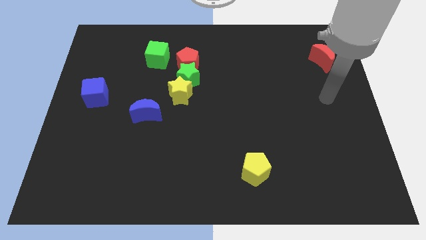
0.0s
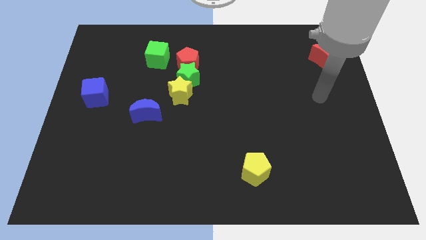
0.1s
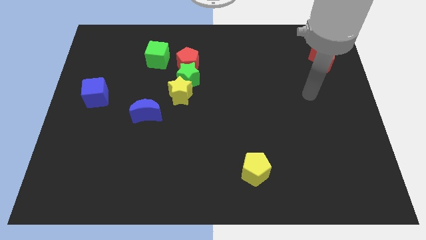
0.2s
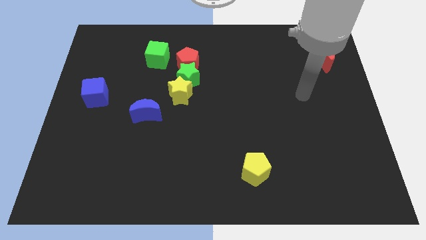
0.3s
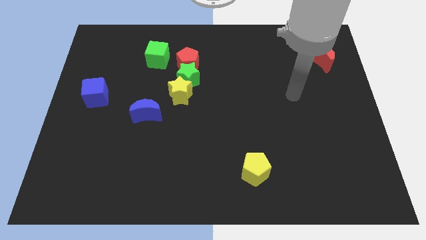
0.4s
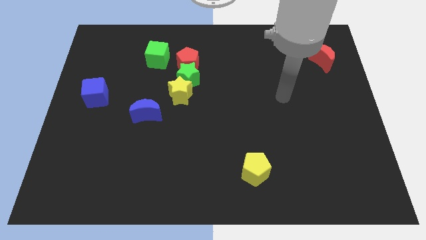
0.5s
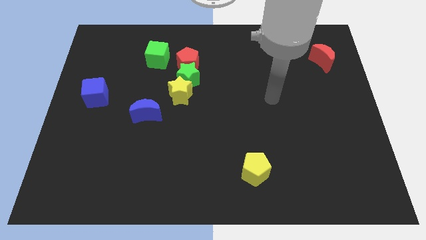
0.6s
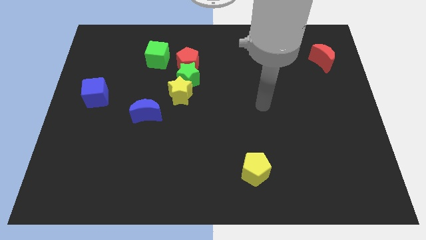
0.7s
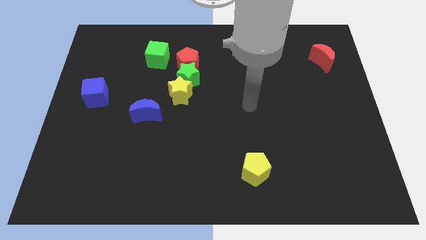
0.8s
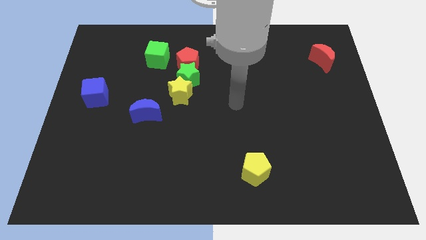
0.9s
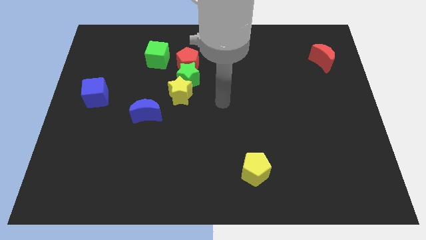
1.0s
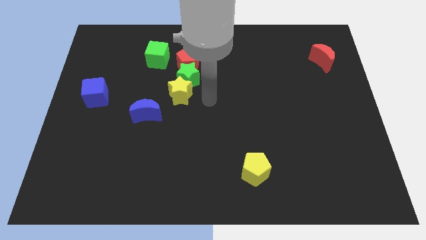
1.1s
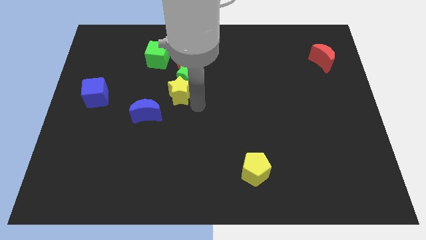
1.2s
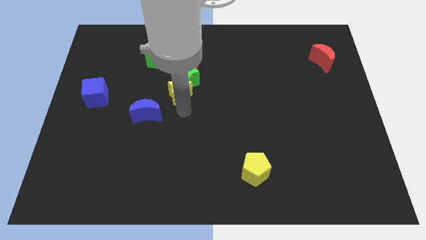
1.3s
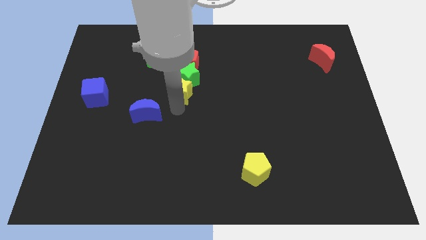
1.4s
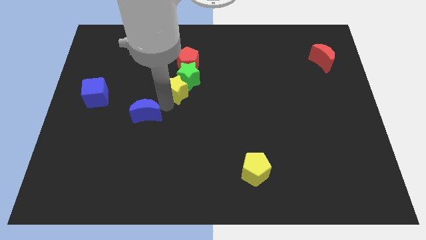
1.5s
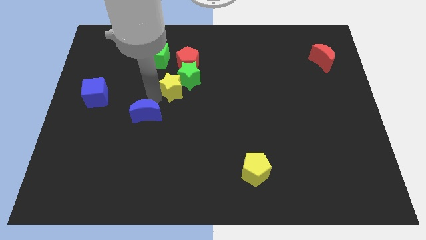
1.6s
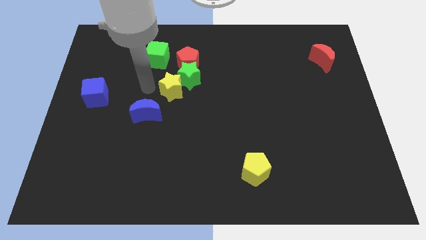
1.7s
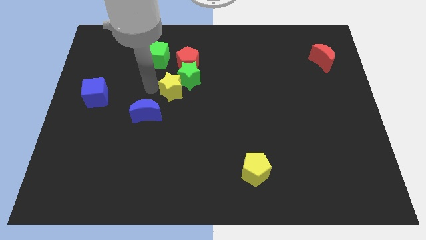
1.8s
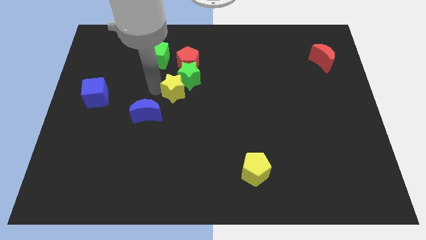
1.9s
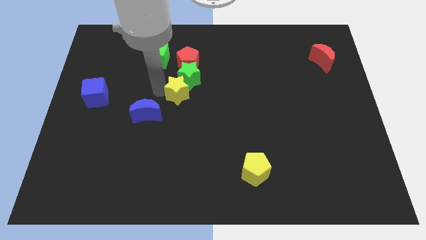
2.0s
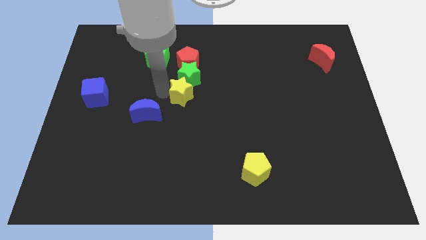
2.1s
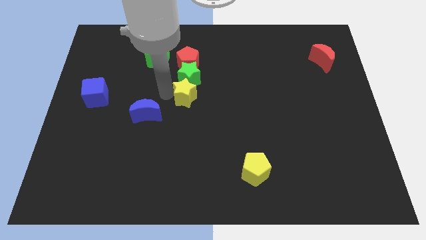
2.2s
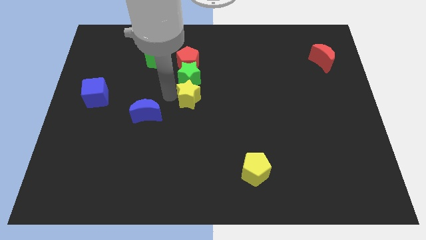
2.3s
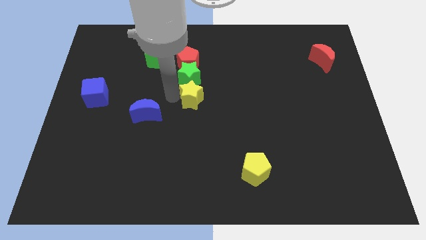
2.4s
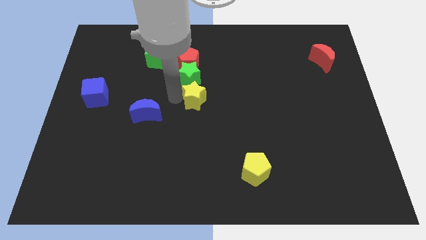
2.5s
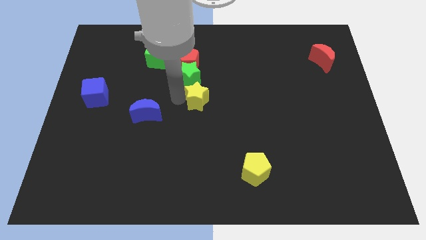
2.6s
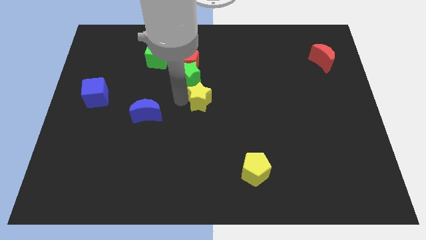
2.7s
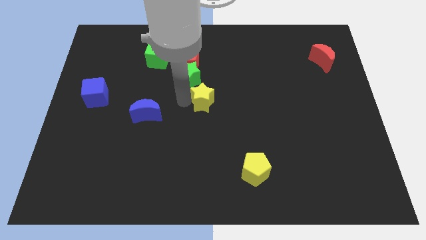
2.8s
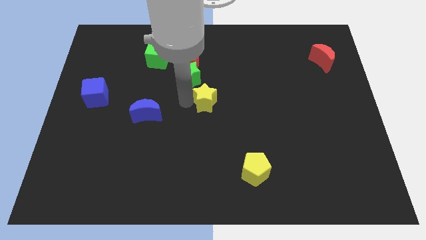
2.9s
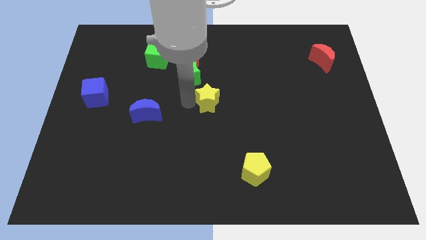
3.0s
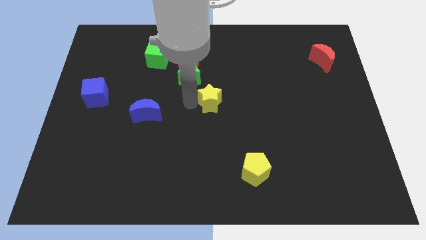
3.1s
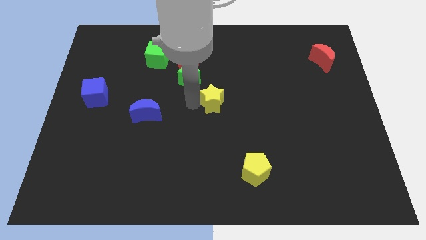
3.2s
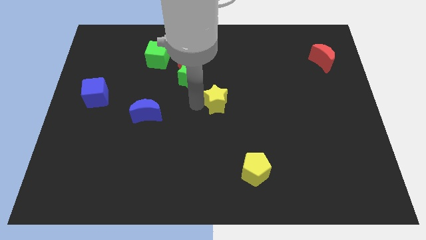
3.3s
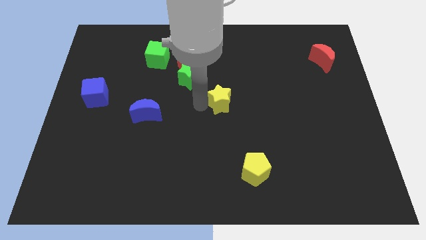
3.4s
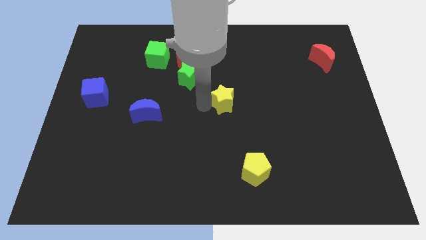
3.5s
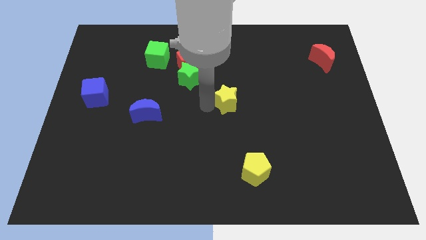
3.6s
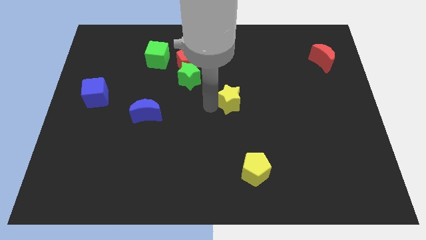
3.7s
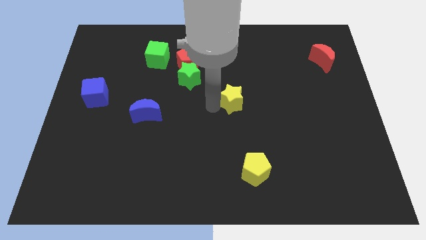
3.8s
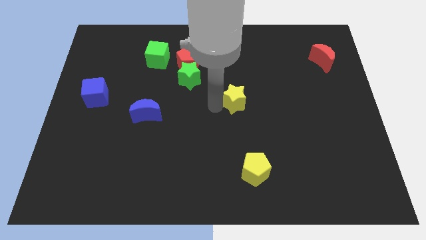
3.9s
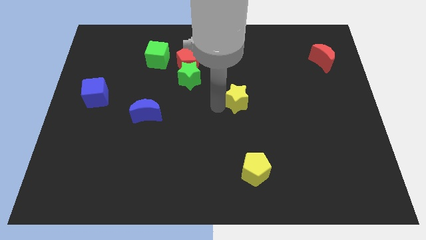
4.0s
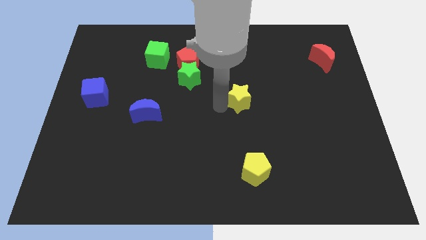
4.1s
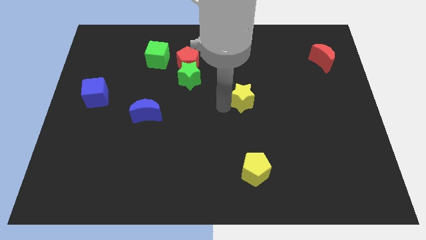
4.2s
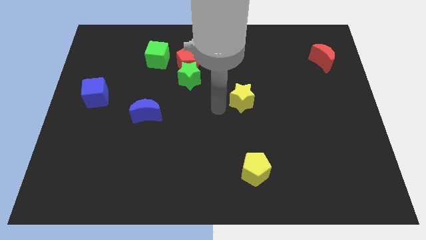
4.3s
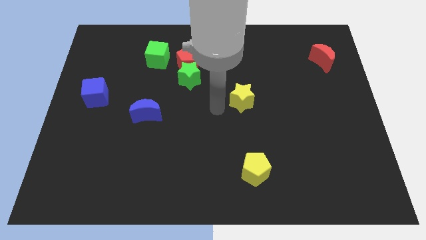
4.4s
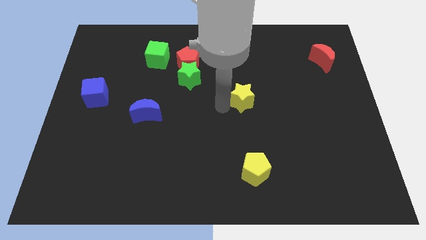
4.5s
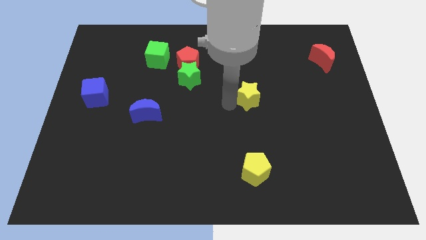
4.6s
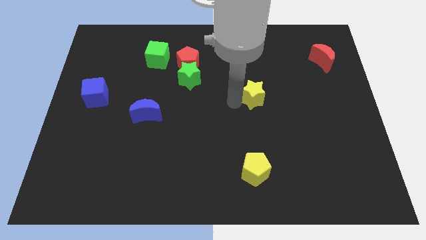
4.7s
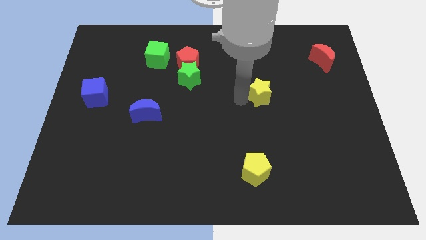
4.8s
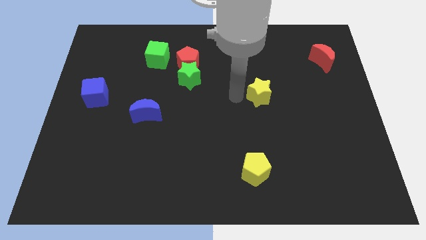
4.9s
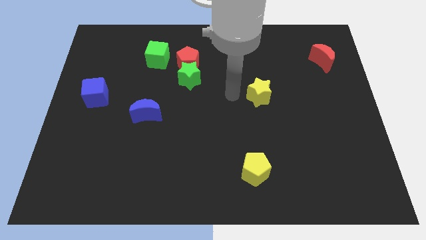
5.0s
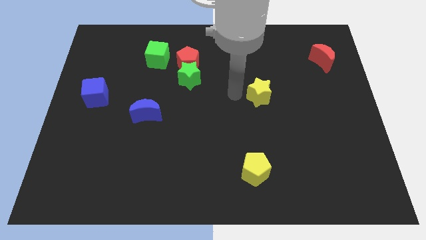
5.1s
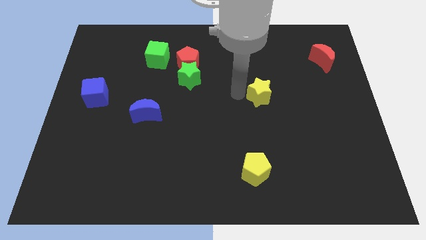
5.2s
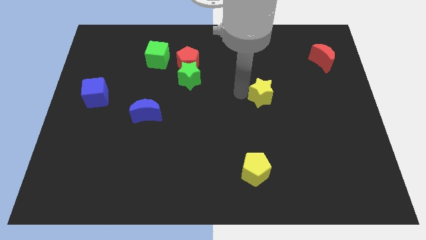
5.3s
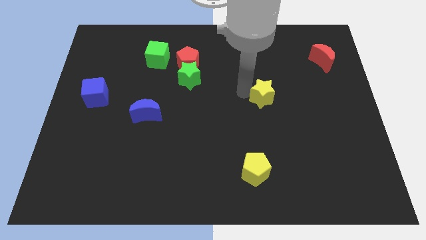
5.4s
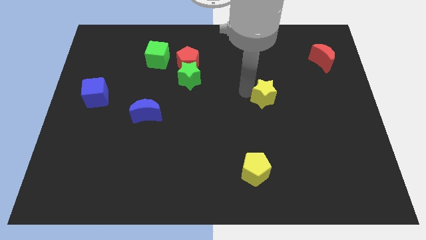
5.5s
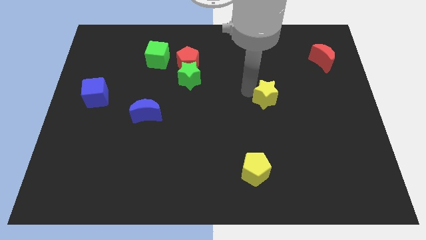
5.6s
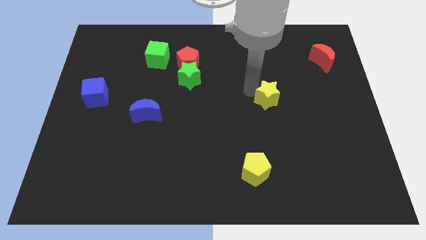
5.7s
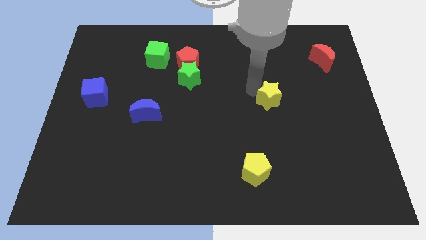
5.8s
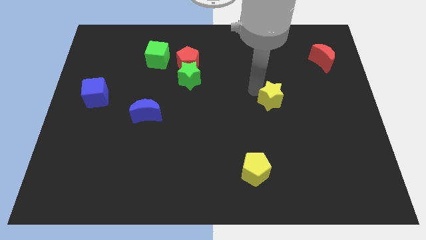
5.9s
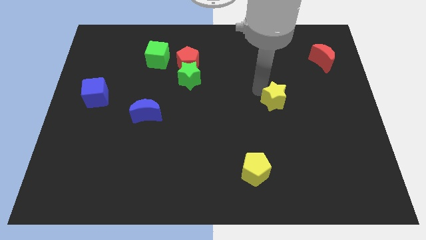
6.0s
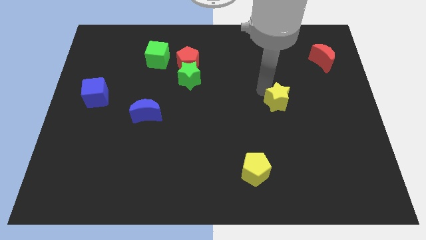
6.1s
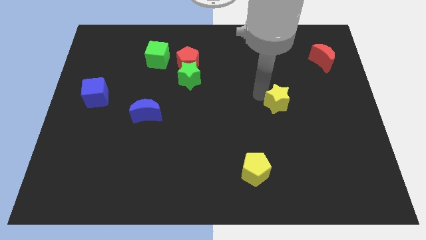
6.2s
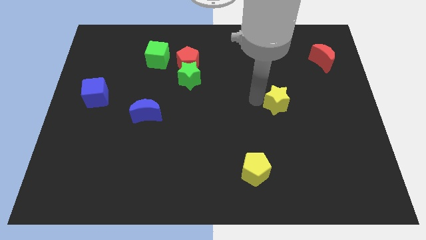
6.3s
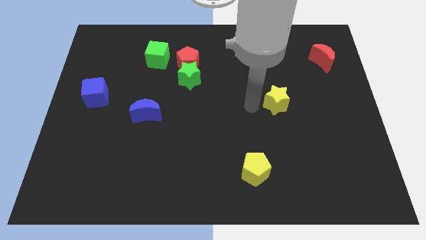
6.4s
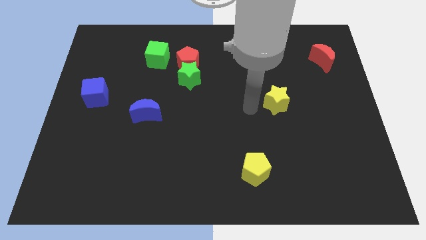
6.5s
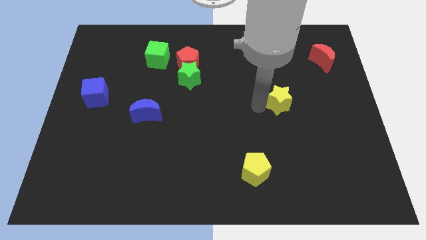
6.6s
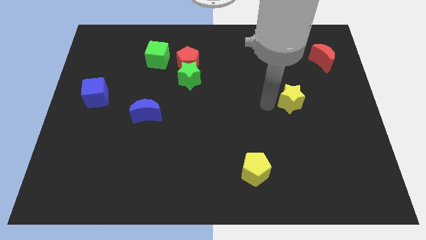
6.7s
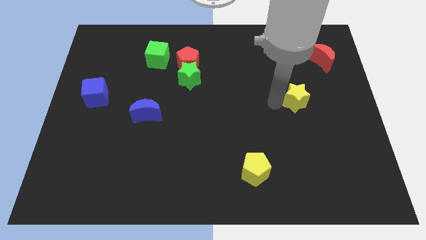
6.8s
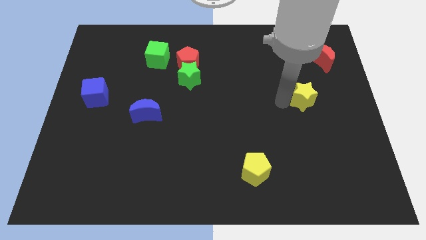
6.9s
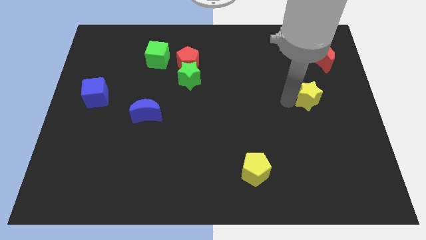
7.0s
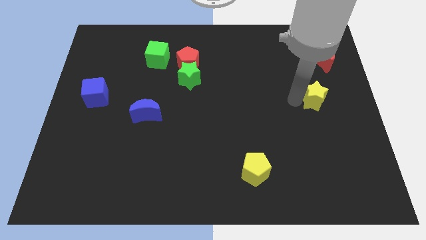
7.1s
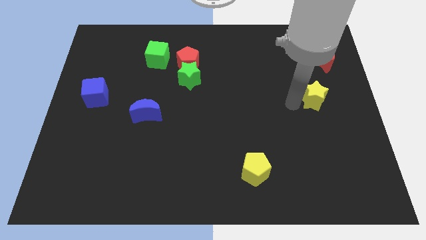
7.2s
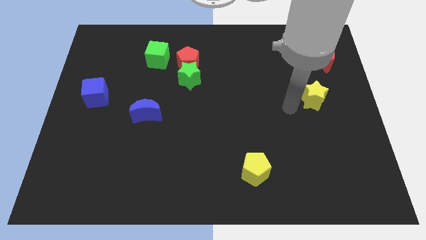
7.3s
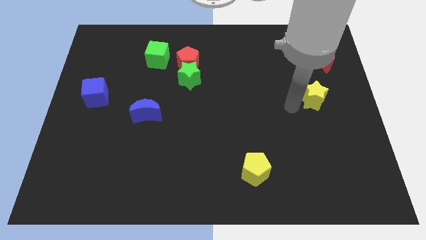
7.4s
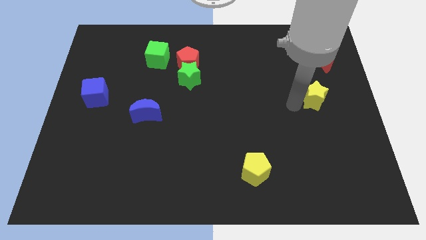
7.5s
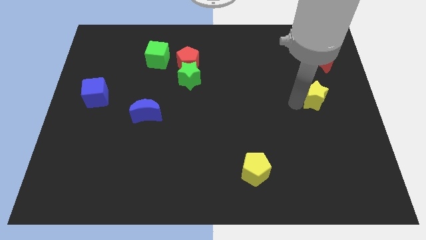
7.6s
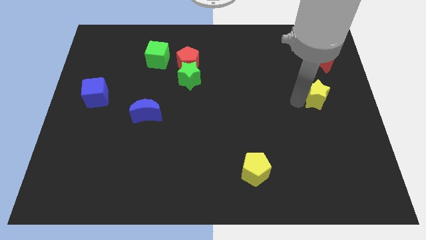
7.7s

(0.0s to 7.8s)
slide the yellow star to the bottom side of the red moon
